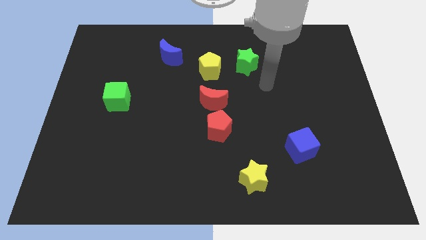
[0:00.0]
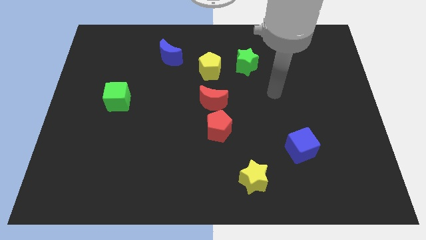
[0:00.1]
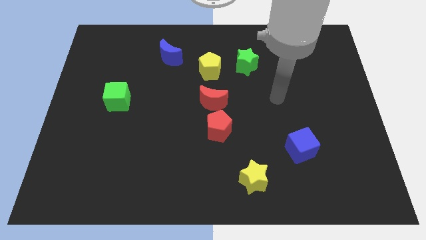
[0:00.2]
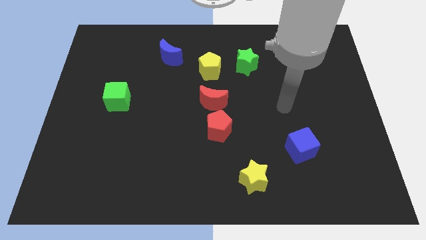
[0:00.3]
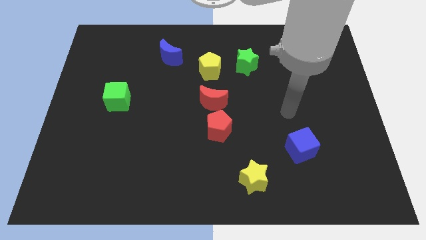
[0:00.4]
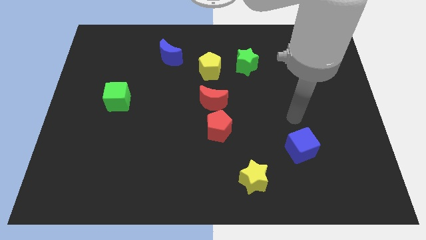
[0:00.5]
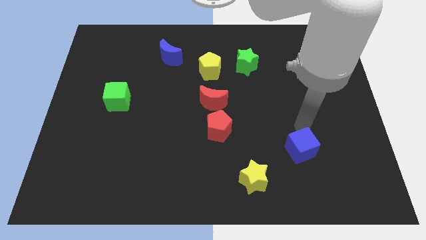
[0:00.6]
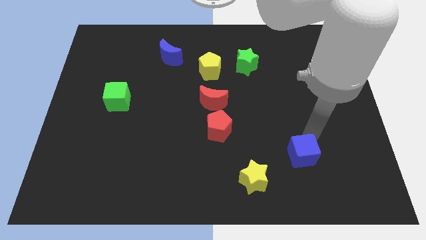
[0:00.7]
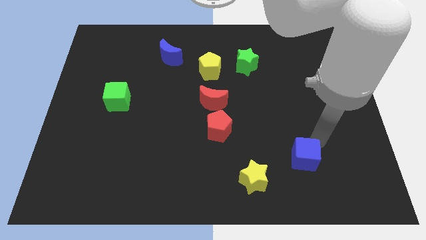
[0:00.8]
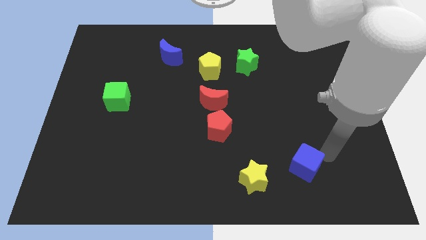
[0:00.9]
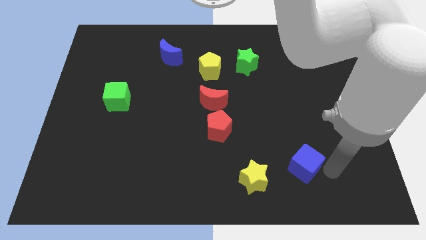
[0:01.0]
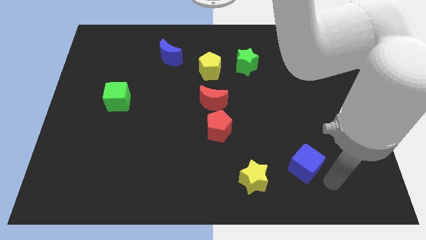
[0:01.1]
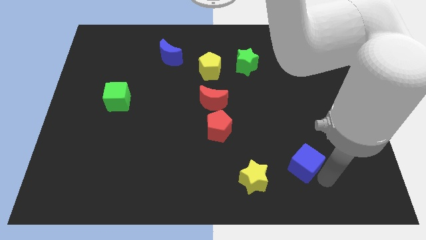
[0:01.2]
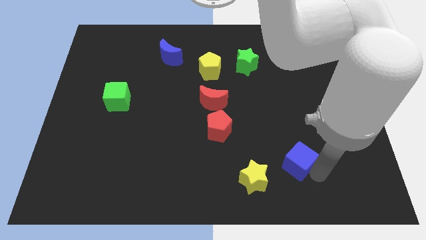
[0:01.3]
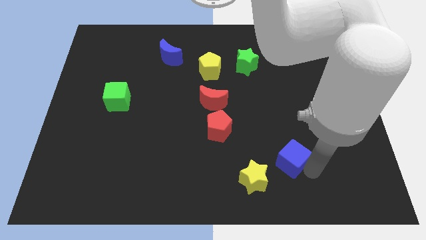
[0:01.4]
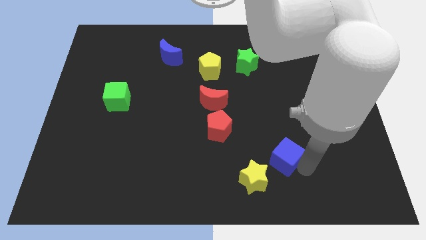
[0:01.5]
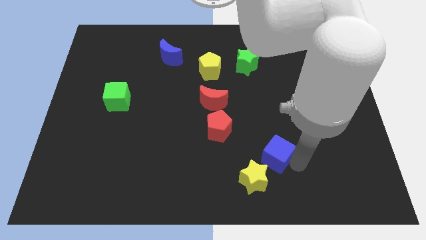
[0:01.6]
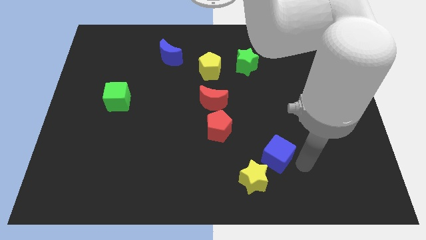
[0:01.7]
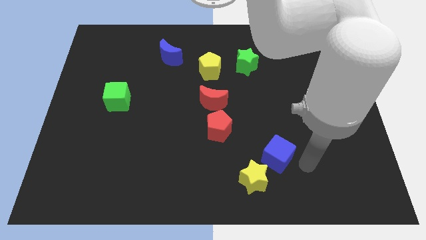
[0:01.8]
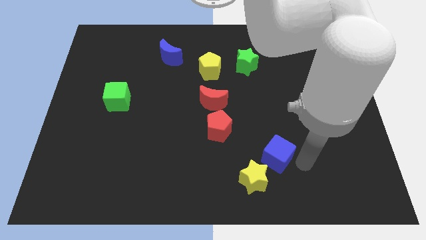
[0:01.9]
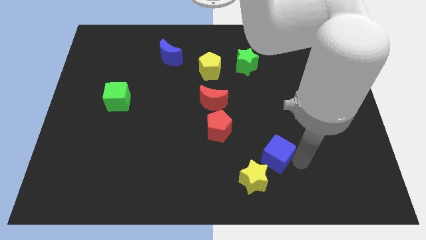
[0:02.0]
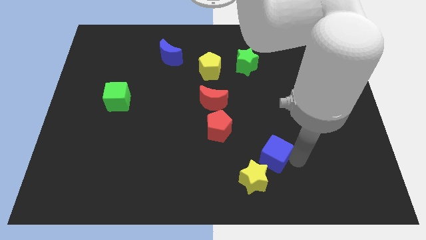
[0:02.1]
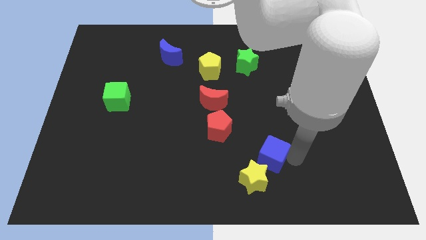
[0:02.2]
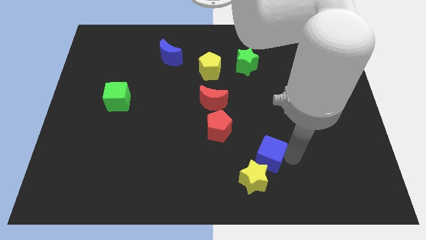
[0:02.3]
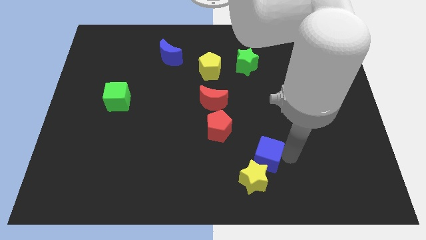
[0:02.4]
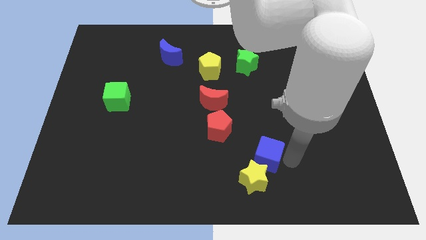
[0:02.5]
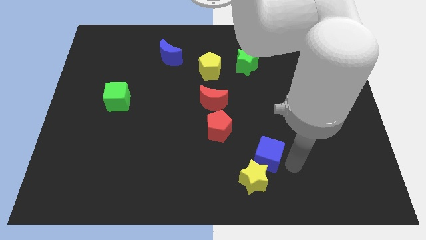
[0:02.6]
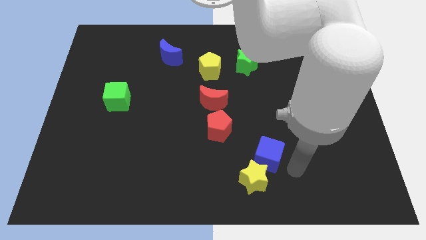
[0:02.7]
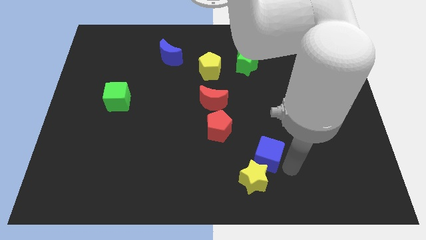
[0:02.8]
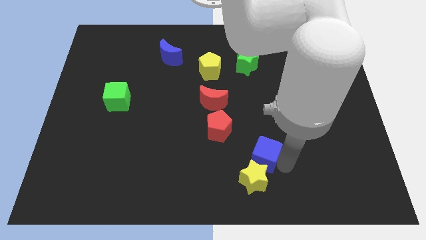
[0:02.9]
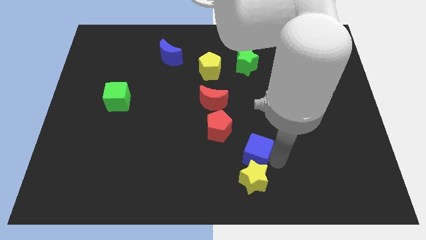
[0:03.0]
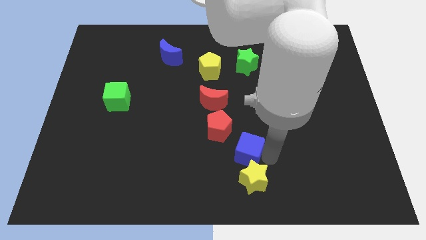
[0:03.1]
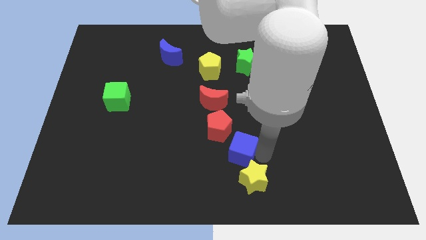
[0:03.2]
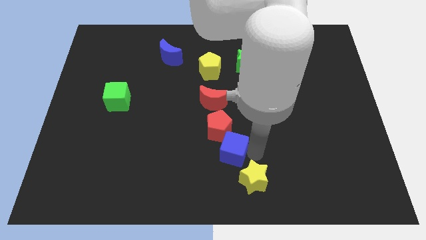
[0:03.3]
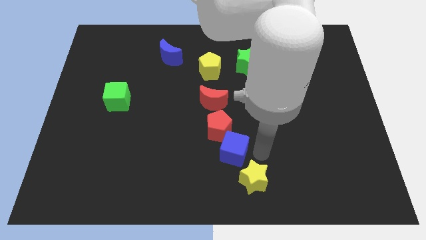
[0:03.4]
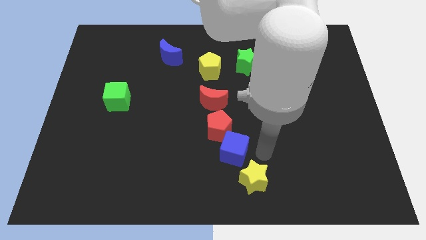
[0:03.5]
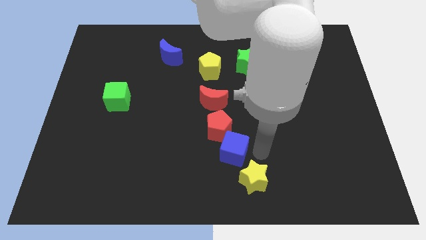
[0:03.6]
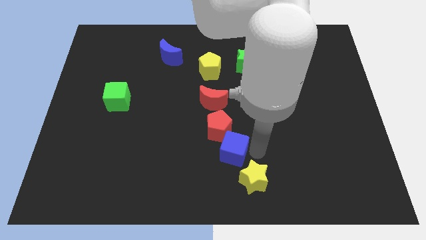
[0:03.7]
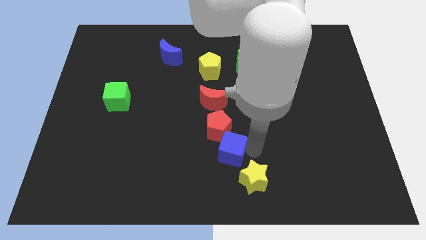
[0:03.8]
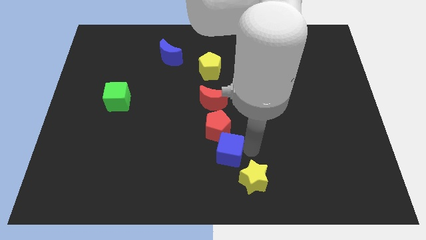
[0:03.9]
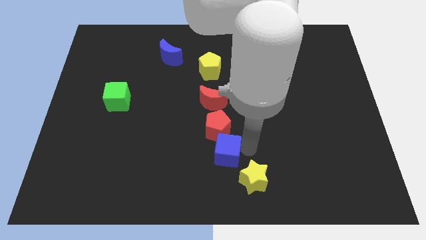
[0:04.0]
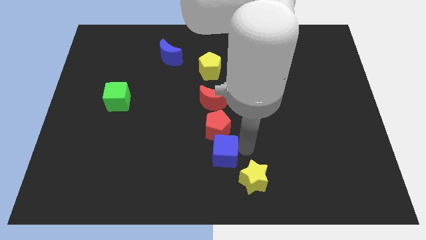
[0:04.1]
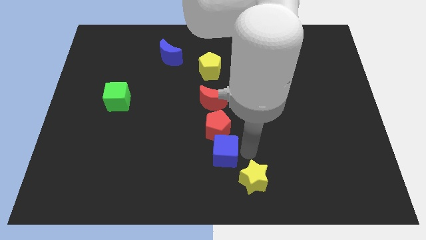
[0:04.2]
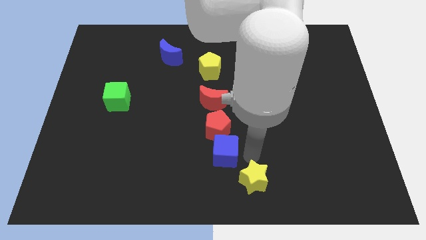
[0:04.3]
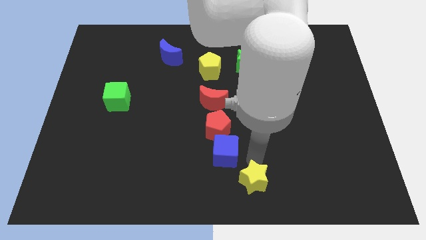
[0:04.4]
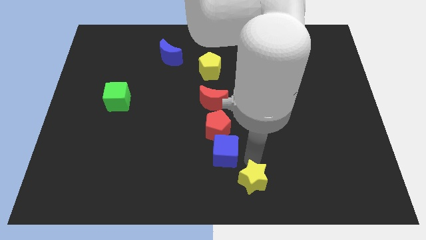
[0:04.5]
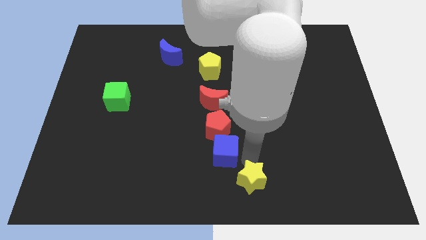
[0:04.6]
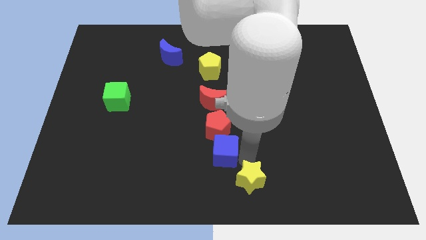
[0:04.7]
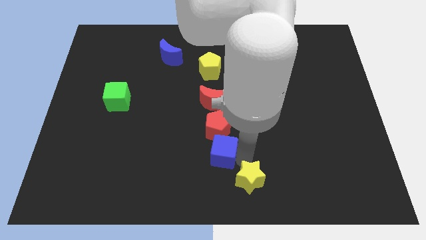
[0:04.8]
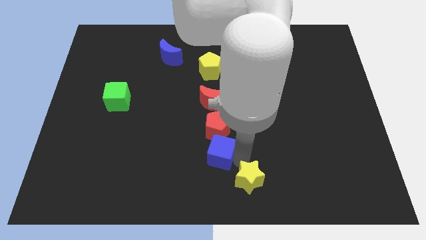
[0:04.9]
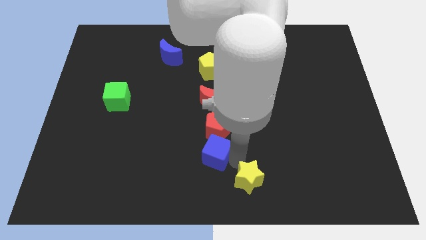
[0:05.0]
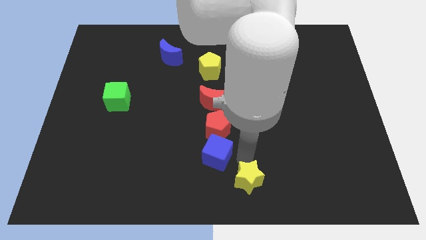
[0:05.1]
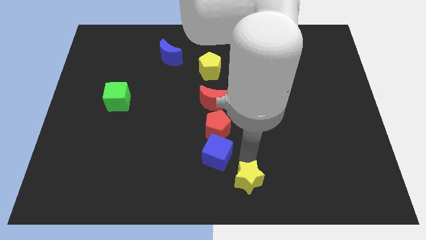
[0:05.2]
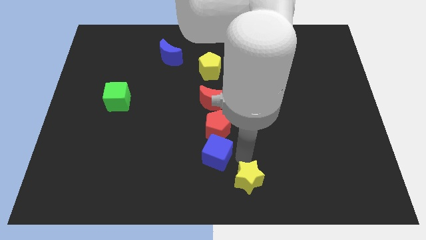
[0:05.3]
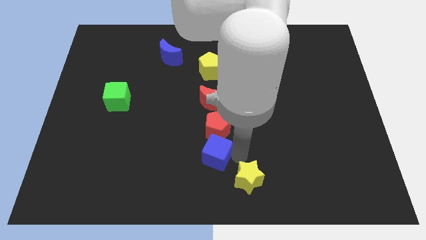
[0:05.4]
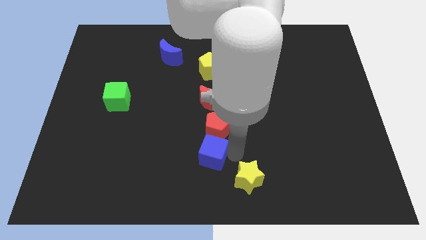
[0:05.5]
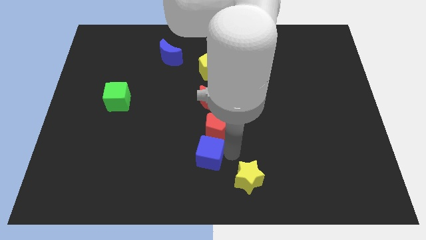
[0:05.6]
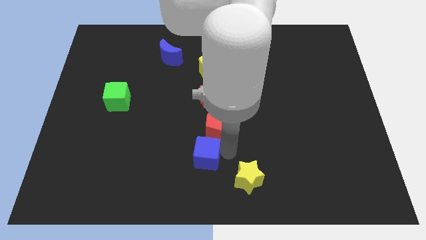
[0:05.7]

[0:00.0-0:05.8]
move the blue cube left

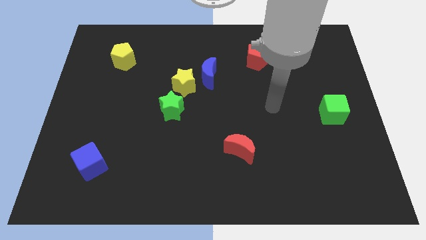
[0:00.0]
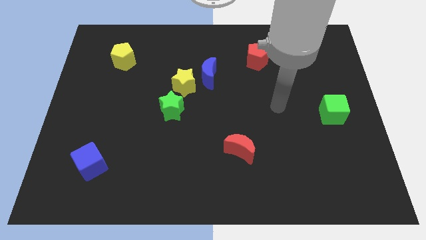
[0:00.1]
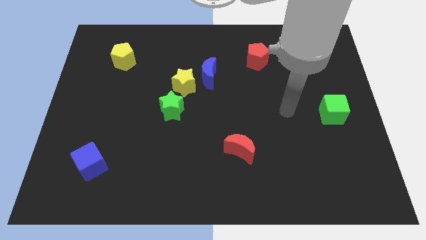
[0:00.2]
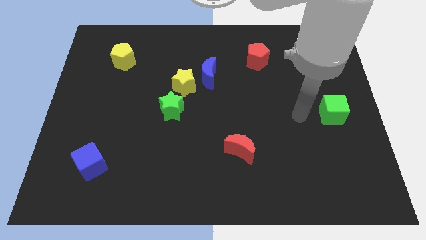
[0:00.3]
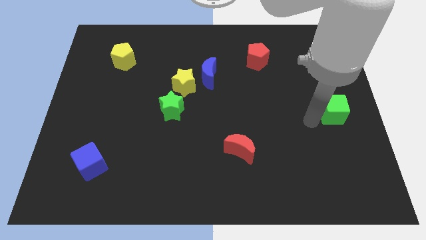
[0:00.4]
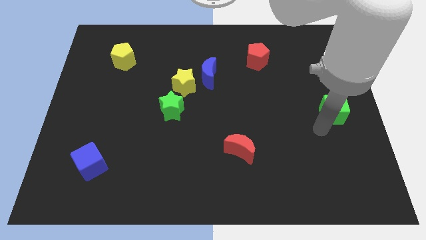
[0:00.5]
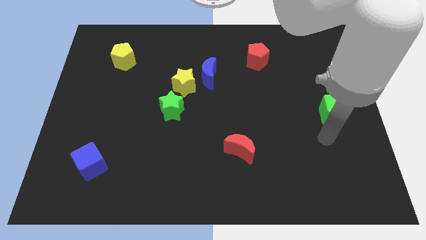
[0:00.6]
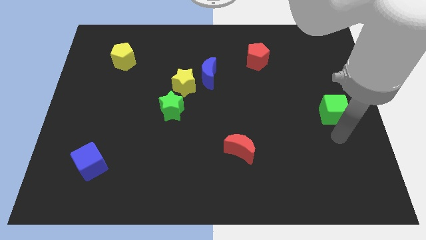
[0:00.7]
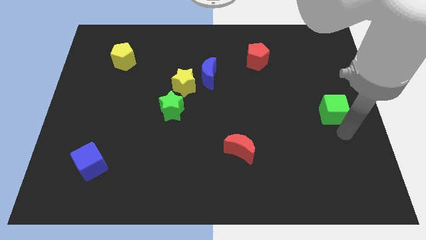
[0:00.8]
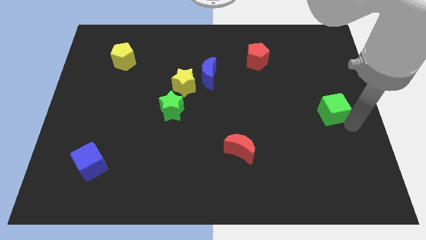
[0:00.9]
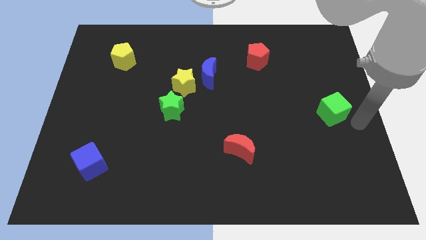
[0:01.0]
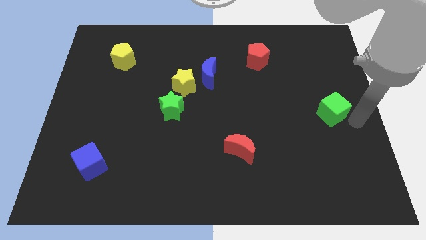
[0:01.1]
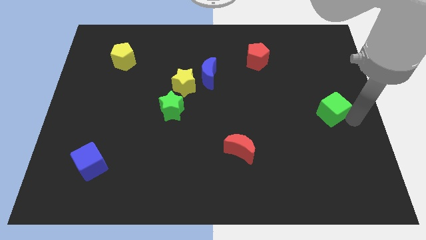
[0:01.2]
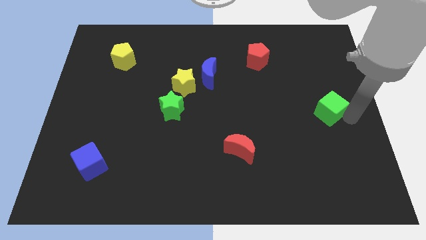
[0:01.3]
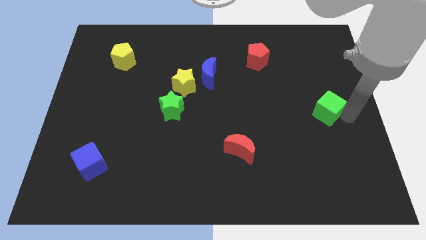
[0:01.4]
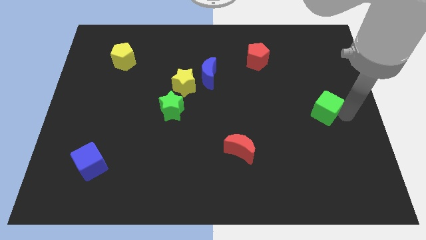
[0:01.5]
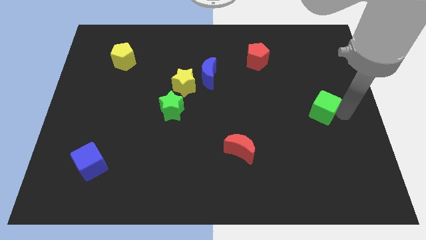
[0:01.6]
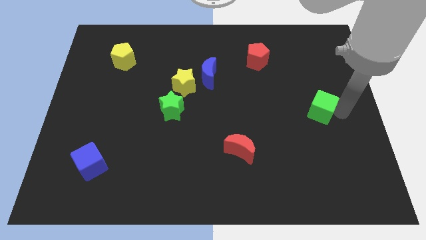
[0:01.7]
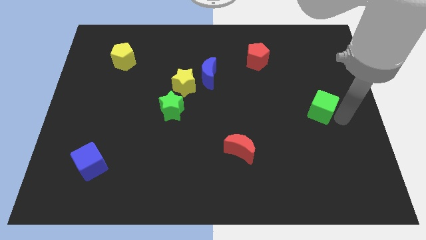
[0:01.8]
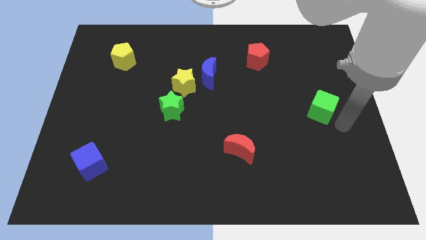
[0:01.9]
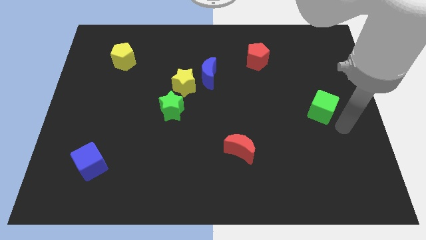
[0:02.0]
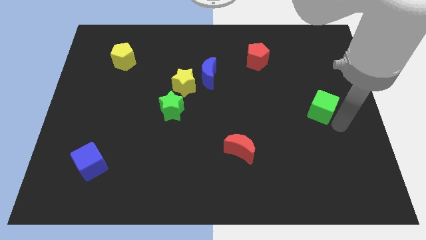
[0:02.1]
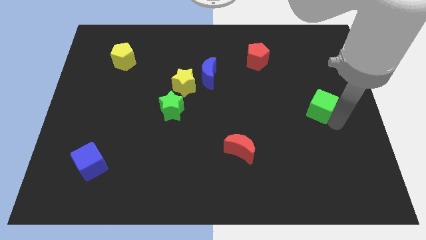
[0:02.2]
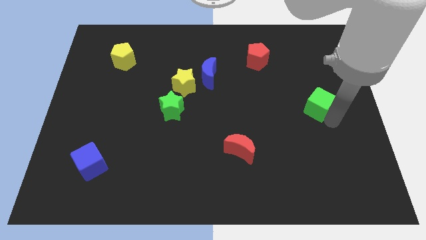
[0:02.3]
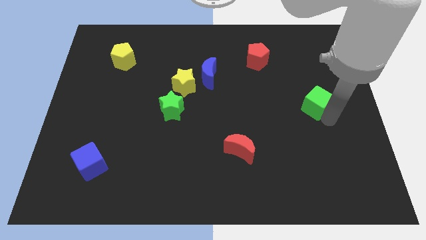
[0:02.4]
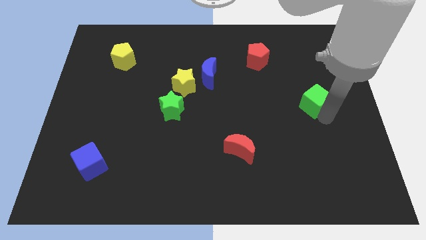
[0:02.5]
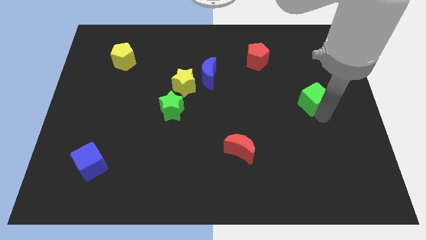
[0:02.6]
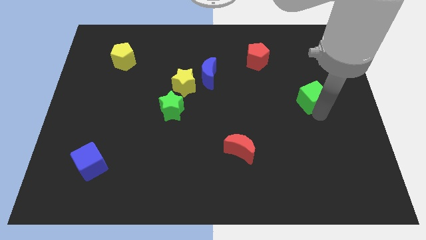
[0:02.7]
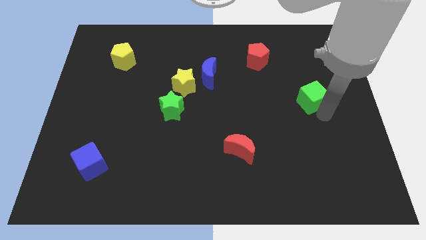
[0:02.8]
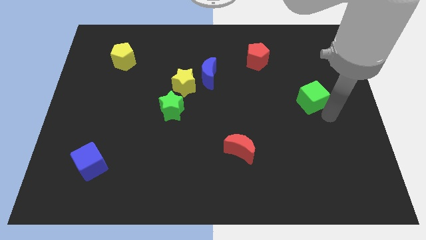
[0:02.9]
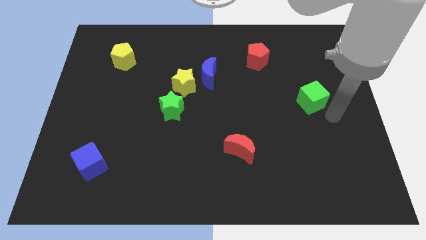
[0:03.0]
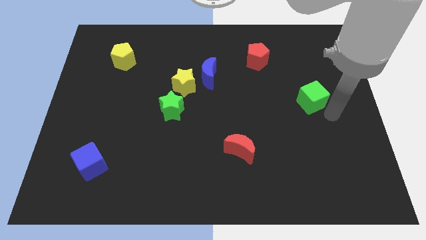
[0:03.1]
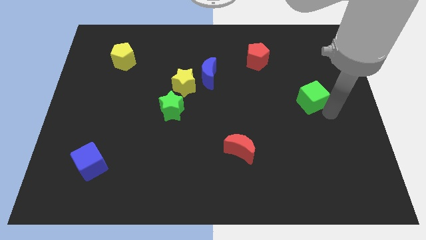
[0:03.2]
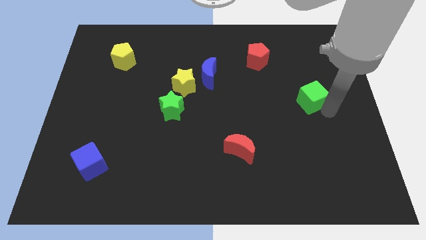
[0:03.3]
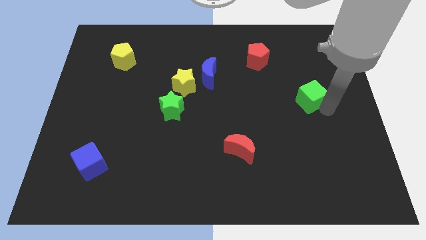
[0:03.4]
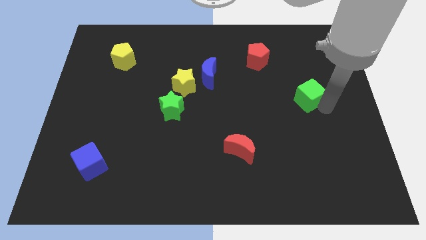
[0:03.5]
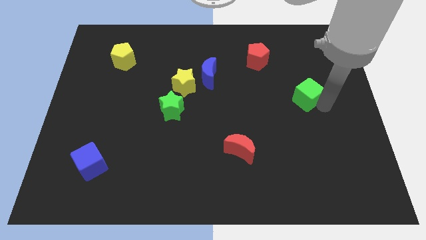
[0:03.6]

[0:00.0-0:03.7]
push the green cube slightly up and left diagonally
